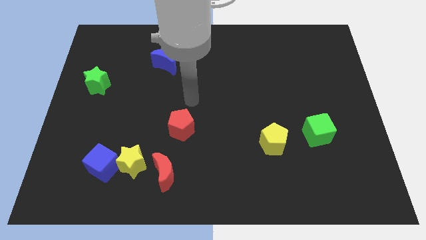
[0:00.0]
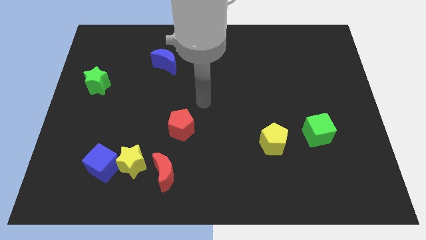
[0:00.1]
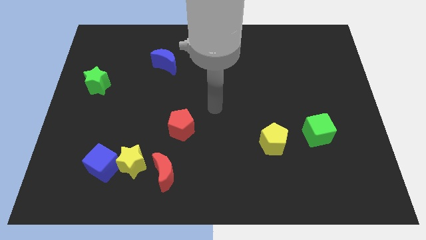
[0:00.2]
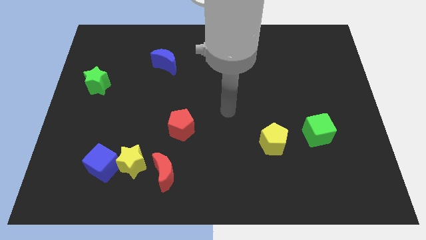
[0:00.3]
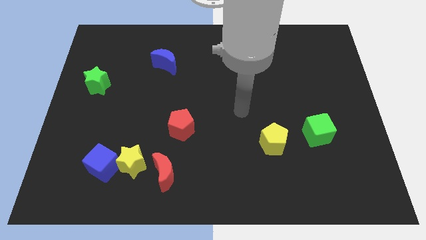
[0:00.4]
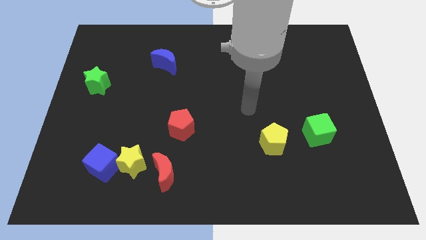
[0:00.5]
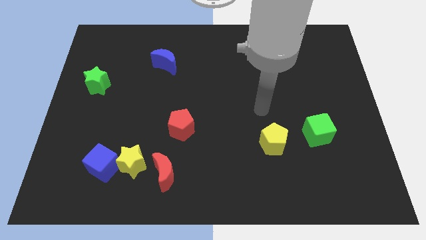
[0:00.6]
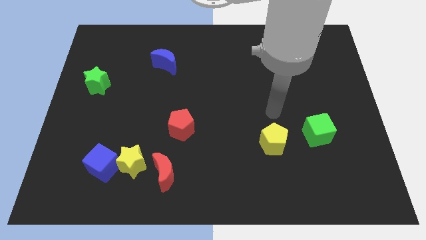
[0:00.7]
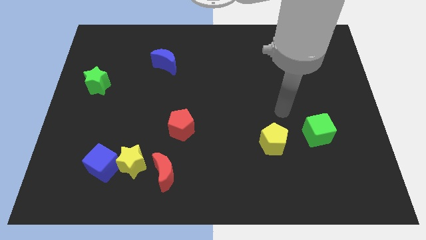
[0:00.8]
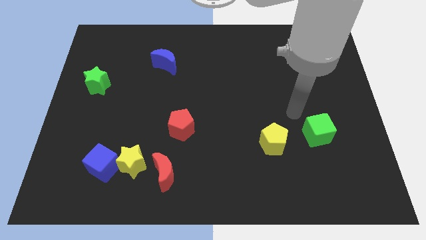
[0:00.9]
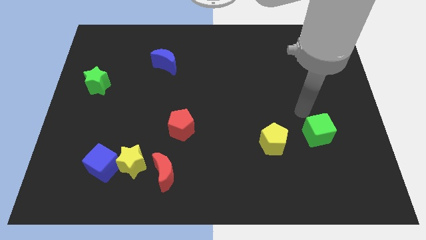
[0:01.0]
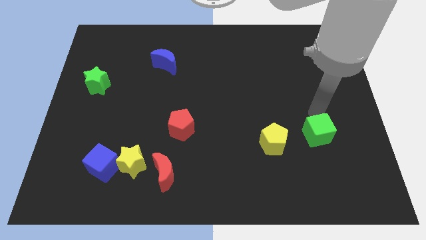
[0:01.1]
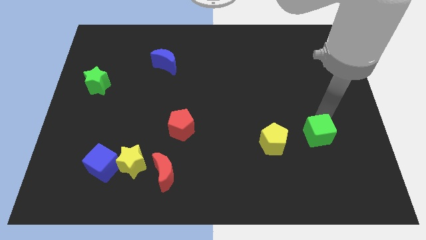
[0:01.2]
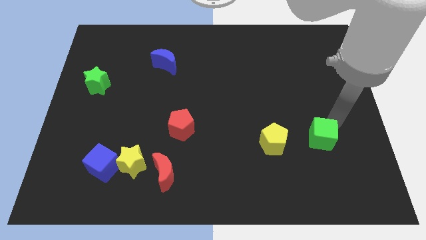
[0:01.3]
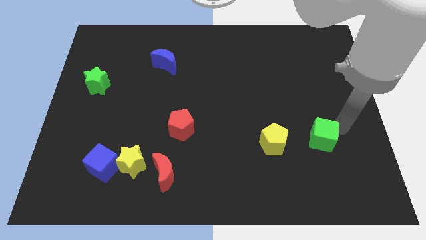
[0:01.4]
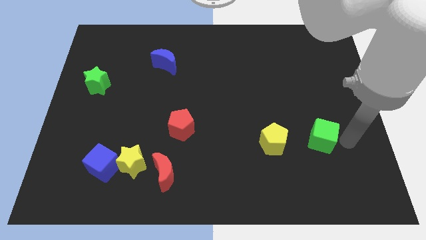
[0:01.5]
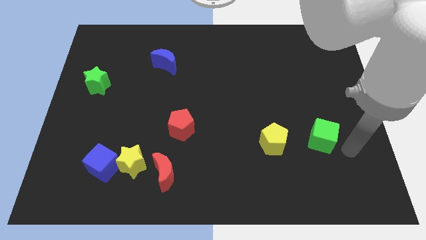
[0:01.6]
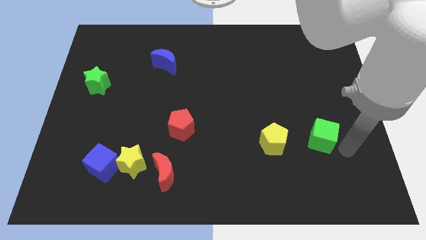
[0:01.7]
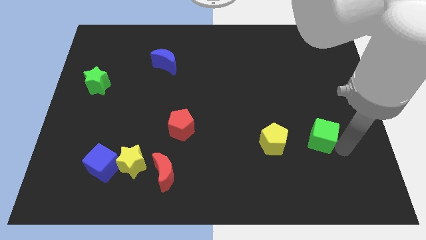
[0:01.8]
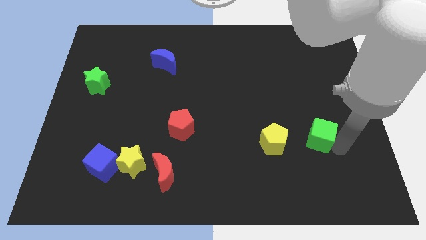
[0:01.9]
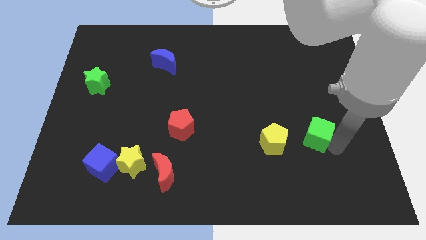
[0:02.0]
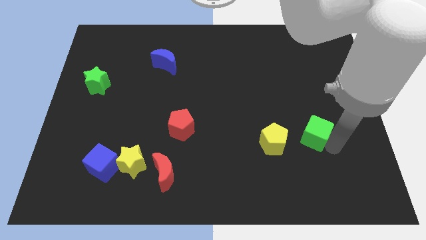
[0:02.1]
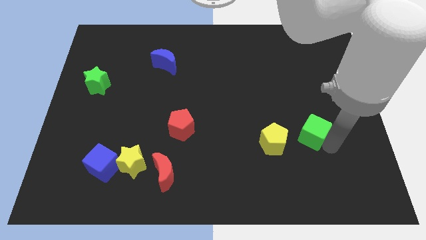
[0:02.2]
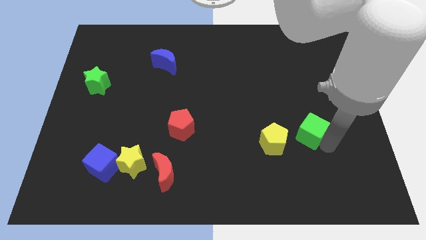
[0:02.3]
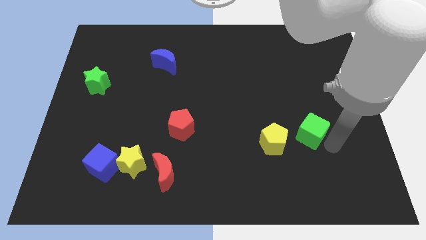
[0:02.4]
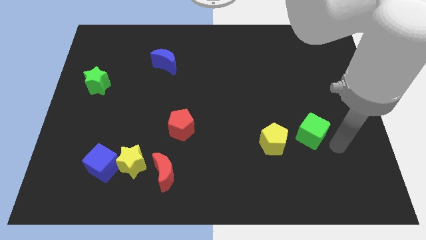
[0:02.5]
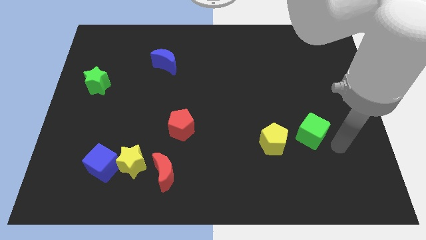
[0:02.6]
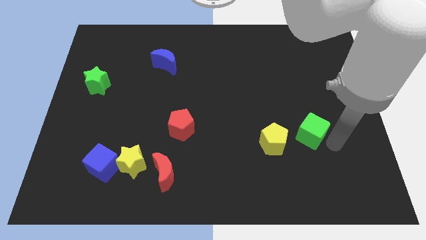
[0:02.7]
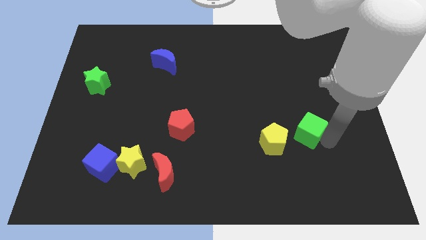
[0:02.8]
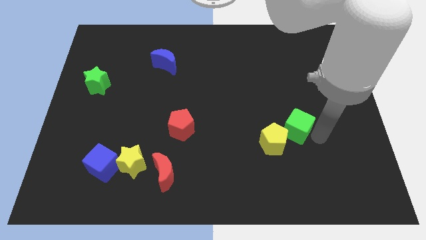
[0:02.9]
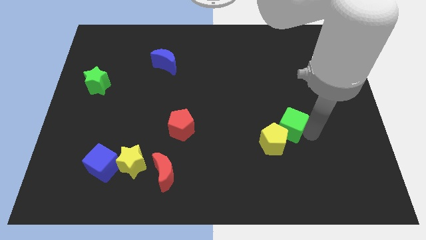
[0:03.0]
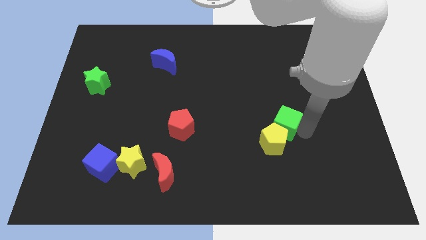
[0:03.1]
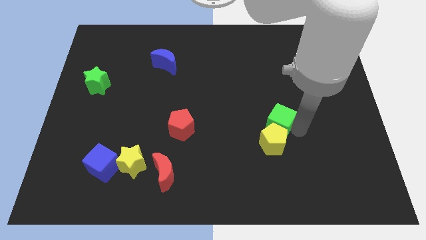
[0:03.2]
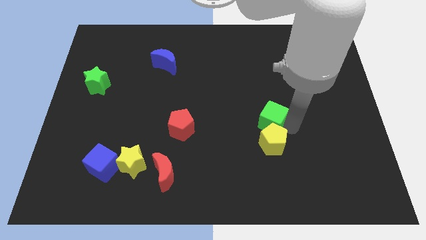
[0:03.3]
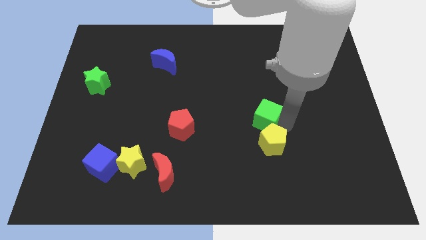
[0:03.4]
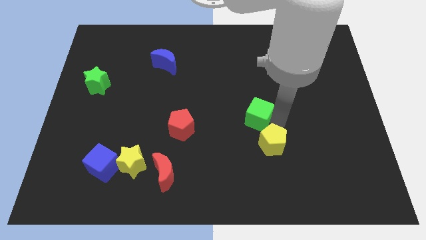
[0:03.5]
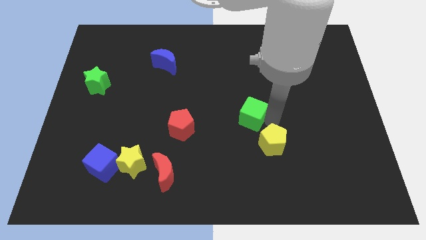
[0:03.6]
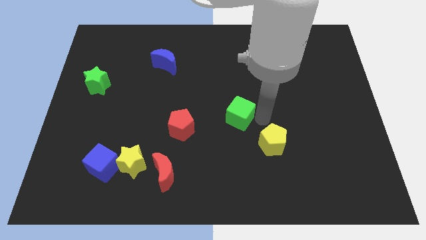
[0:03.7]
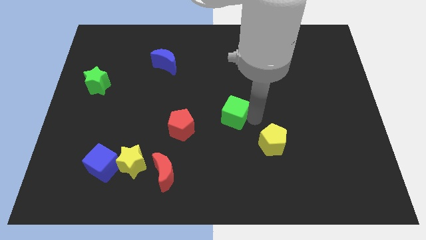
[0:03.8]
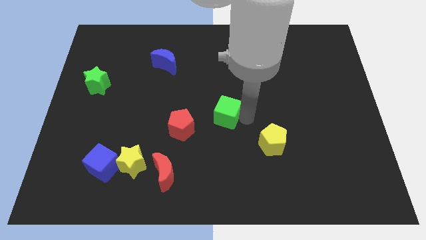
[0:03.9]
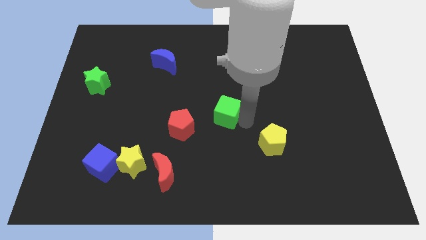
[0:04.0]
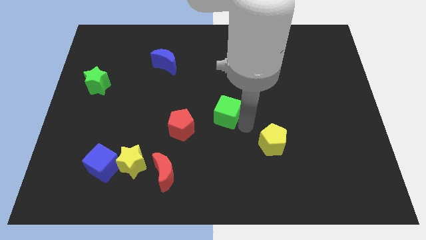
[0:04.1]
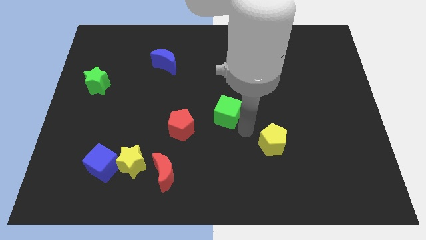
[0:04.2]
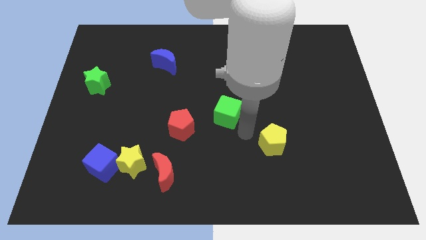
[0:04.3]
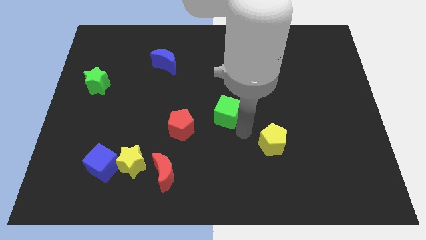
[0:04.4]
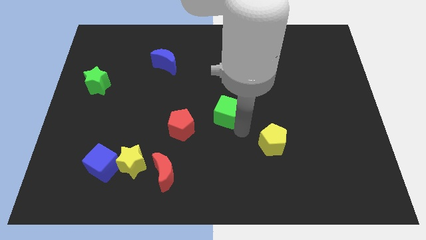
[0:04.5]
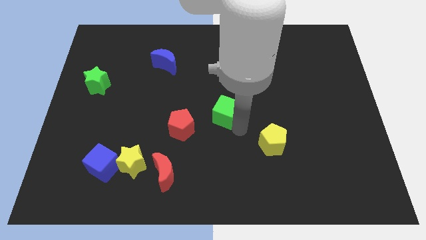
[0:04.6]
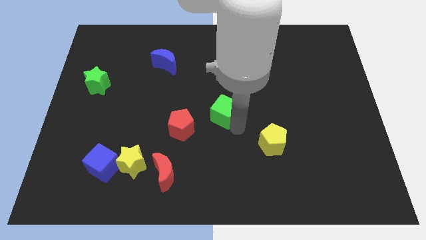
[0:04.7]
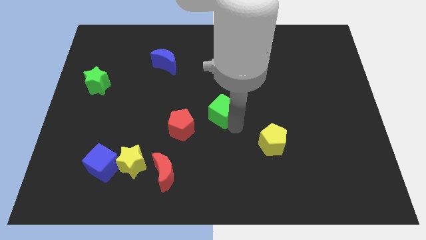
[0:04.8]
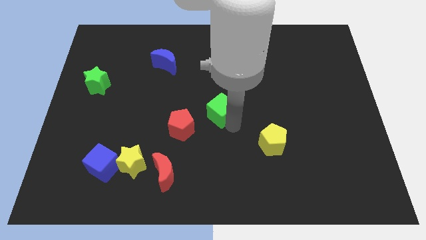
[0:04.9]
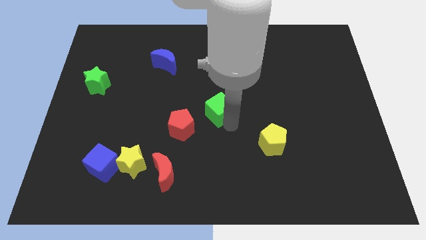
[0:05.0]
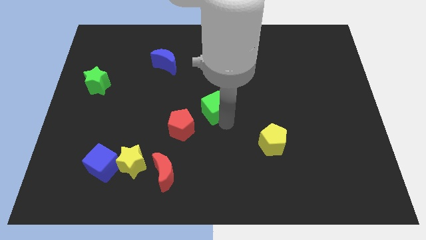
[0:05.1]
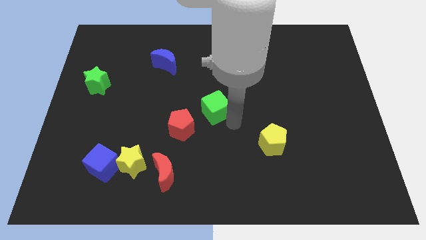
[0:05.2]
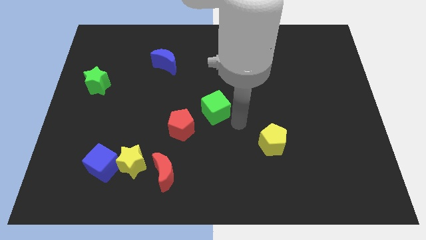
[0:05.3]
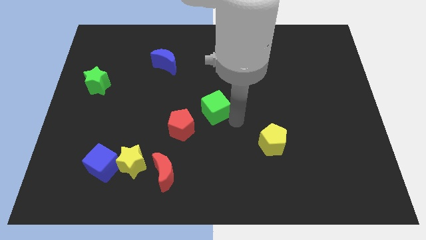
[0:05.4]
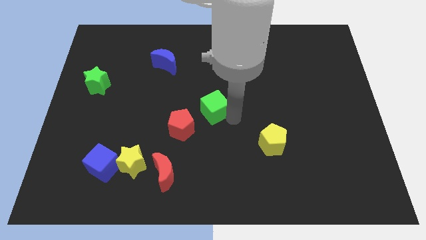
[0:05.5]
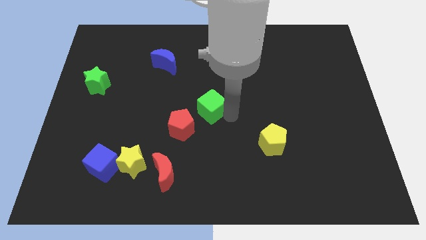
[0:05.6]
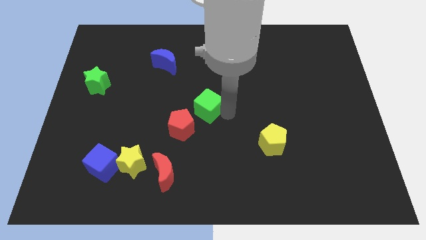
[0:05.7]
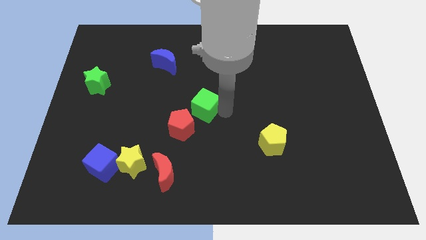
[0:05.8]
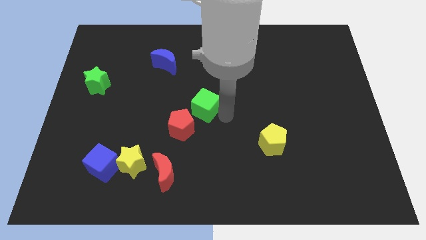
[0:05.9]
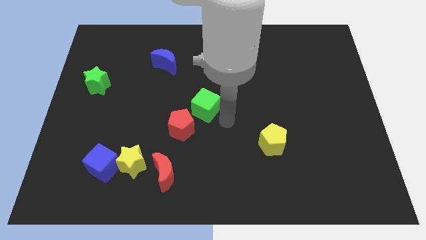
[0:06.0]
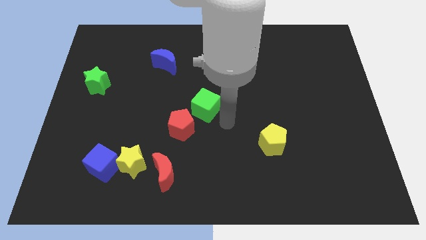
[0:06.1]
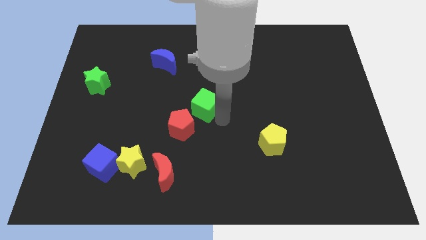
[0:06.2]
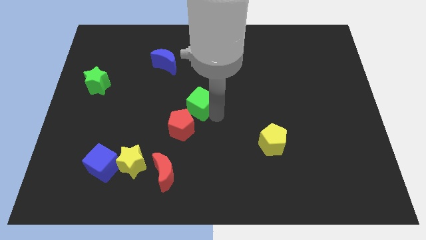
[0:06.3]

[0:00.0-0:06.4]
move the green cube to the top of the red pentagon

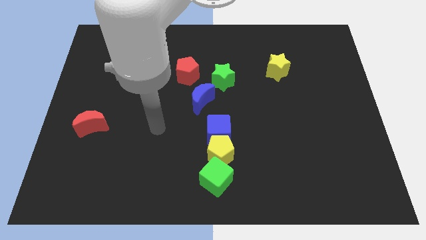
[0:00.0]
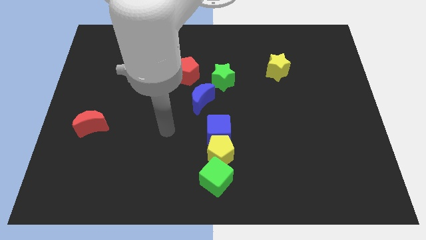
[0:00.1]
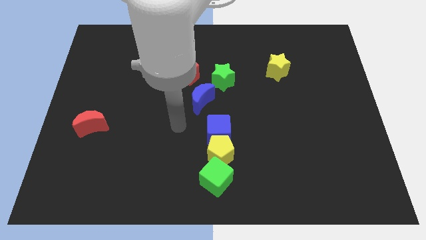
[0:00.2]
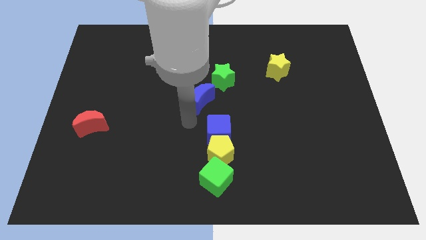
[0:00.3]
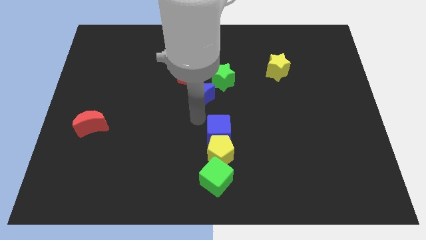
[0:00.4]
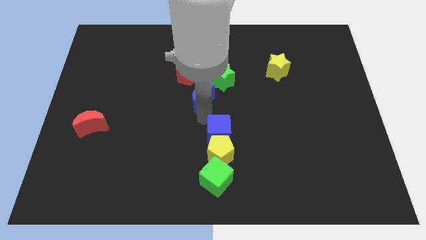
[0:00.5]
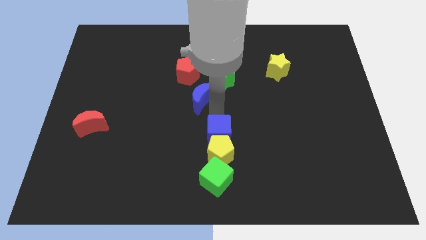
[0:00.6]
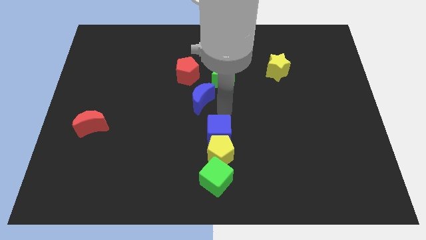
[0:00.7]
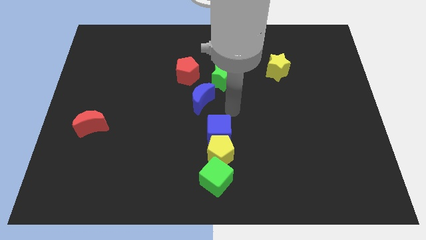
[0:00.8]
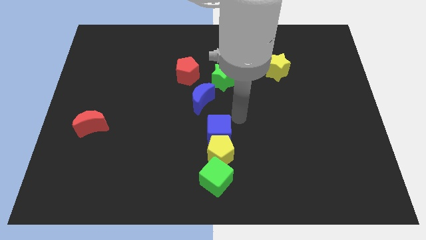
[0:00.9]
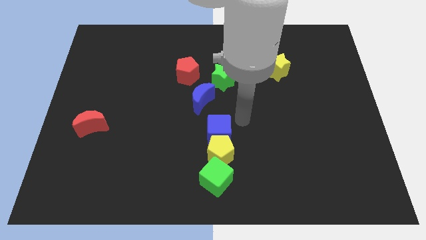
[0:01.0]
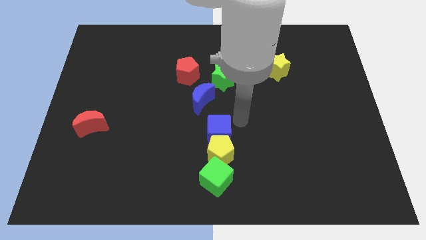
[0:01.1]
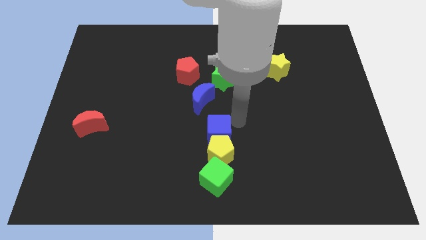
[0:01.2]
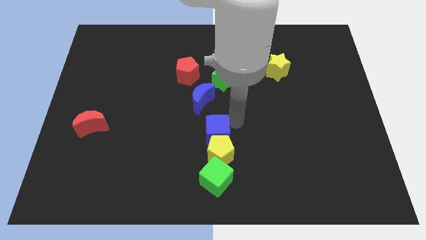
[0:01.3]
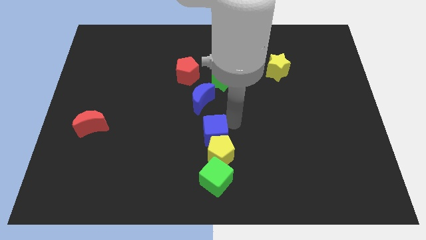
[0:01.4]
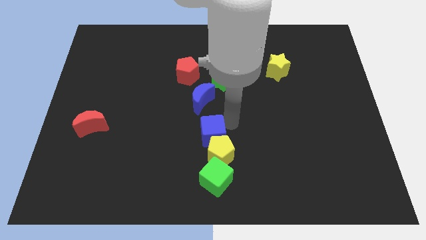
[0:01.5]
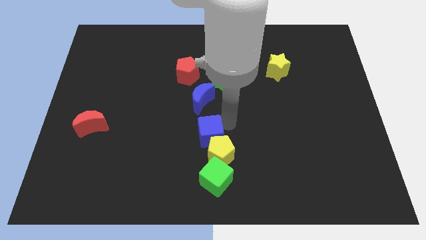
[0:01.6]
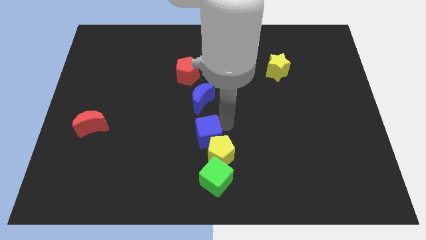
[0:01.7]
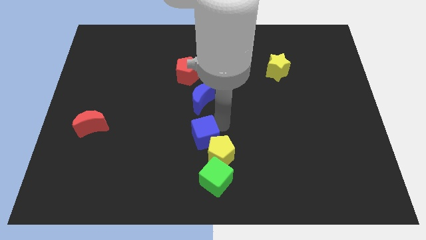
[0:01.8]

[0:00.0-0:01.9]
slide the blue cube just left of the yellow pentagon

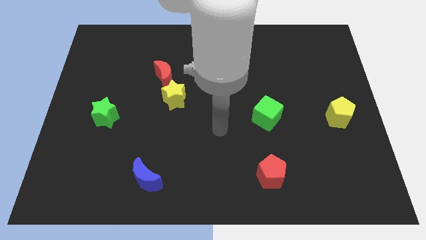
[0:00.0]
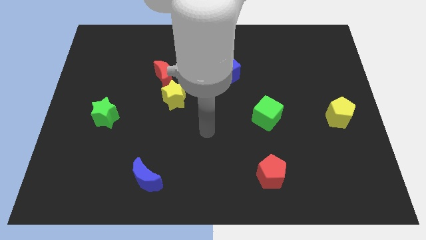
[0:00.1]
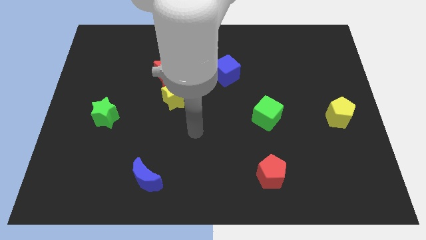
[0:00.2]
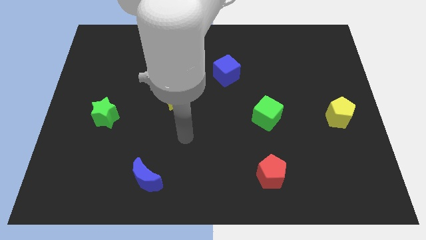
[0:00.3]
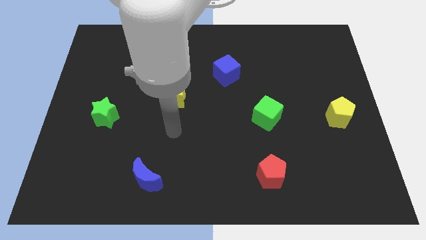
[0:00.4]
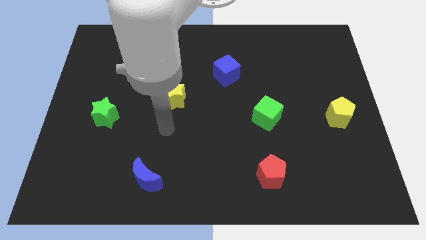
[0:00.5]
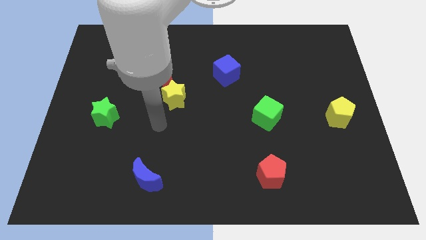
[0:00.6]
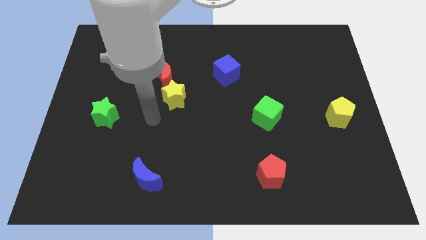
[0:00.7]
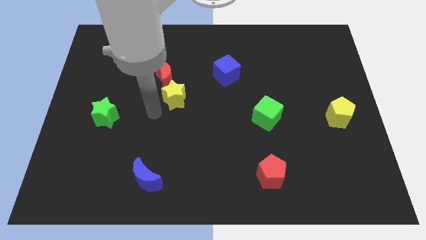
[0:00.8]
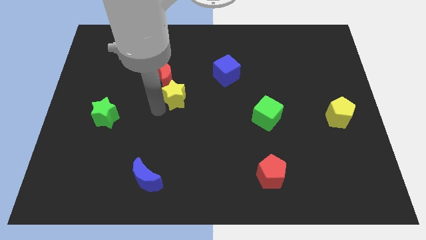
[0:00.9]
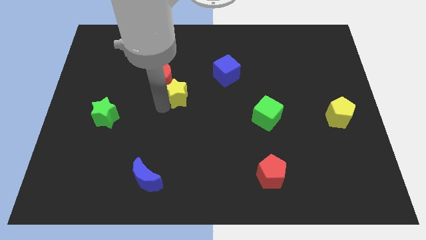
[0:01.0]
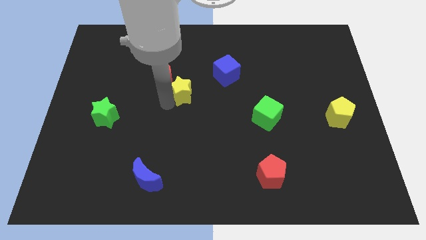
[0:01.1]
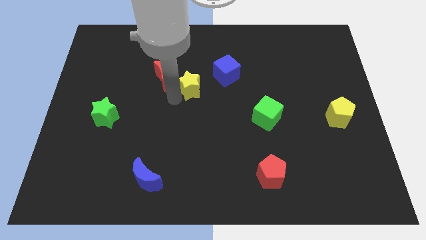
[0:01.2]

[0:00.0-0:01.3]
push the yellow star to the right side of the red moon
